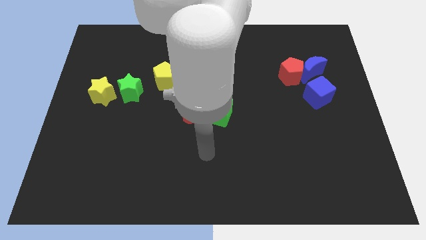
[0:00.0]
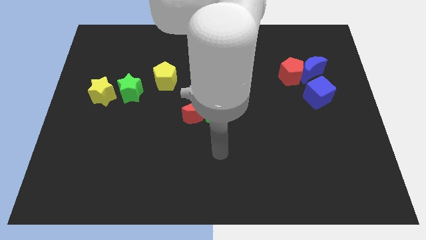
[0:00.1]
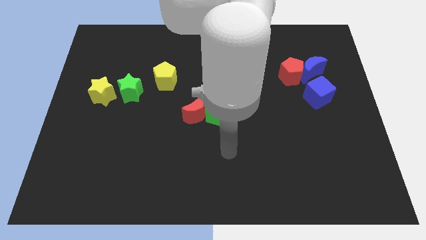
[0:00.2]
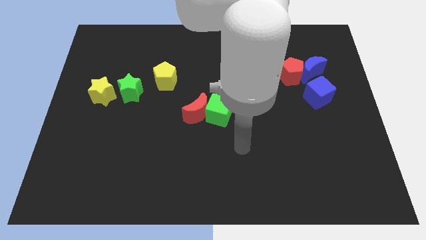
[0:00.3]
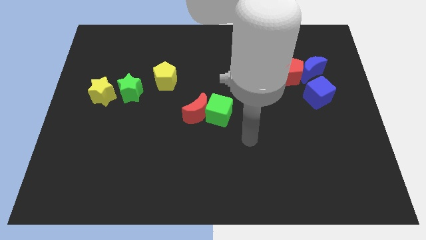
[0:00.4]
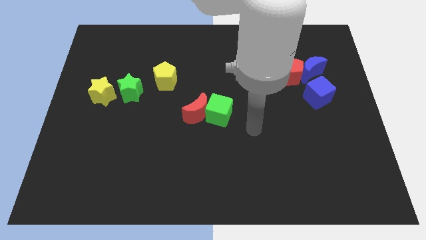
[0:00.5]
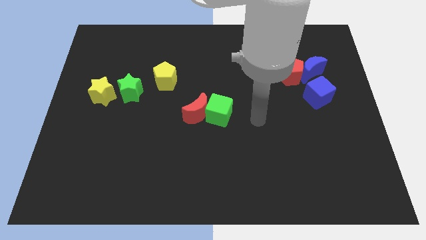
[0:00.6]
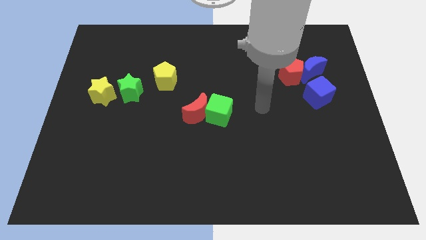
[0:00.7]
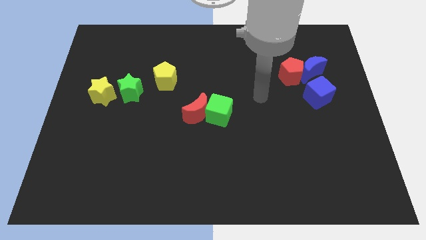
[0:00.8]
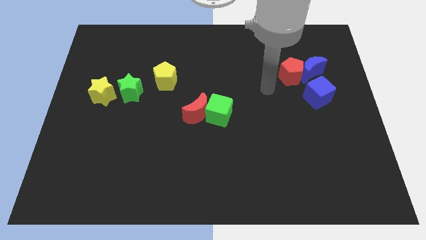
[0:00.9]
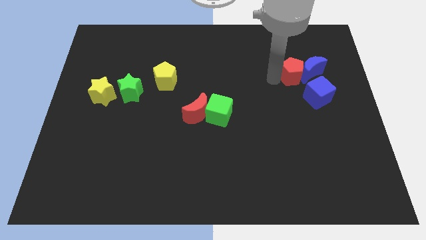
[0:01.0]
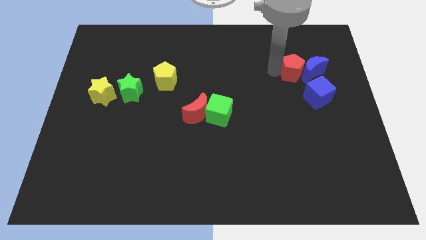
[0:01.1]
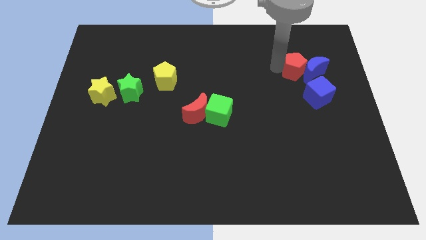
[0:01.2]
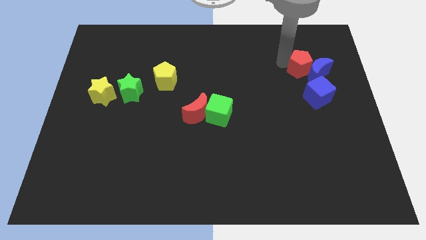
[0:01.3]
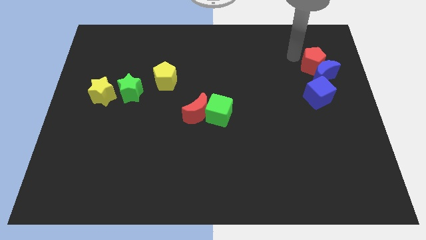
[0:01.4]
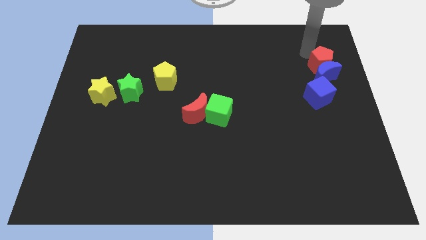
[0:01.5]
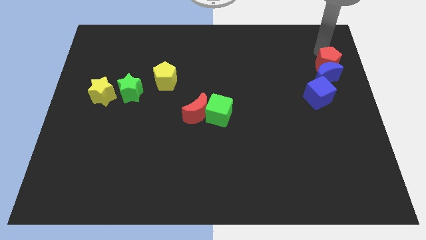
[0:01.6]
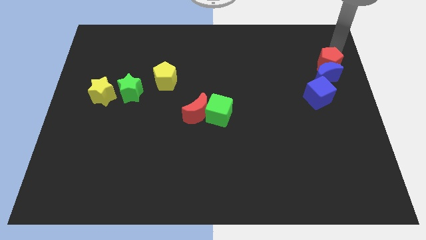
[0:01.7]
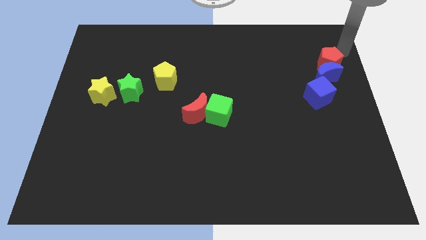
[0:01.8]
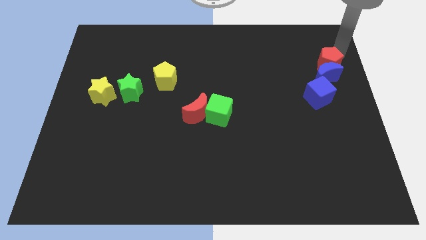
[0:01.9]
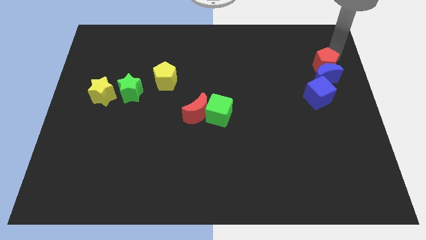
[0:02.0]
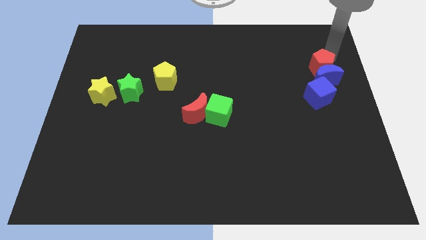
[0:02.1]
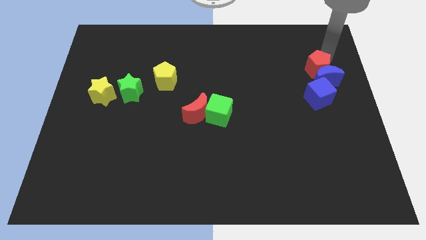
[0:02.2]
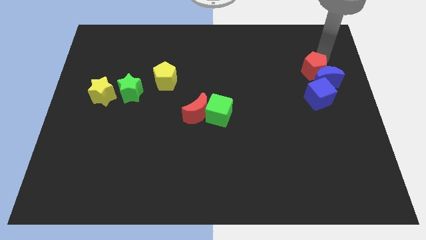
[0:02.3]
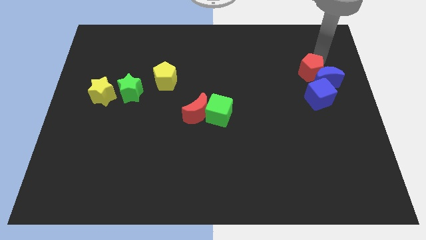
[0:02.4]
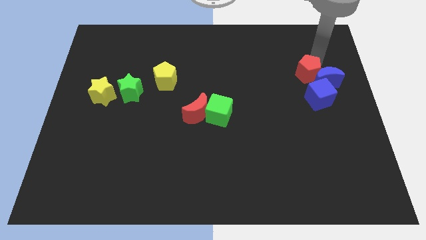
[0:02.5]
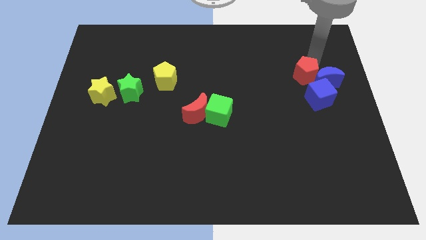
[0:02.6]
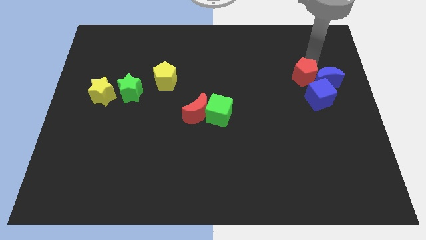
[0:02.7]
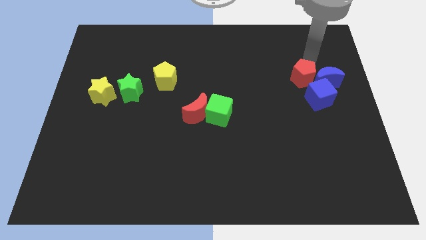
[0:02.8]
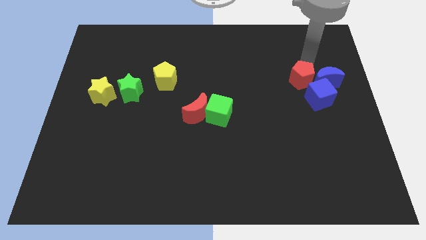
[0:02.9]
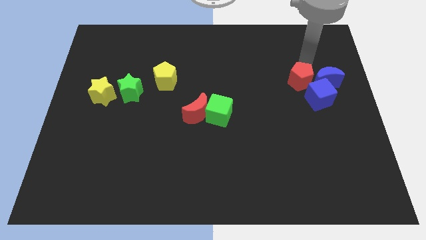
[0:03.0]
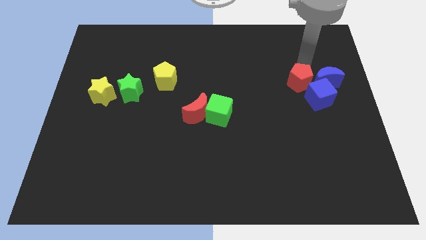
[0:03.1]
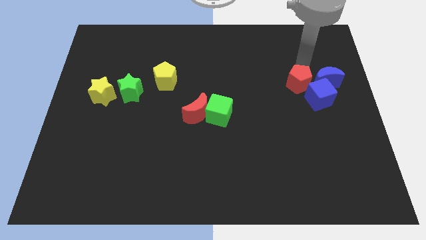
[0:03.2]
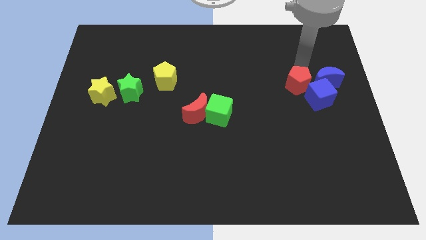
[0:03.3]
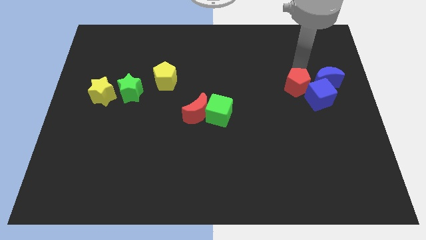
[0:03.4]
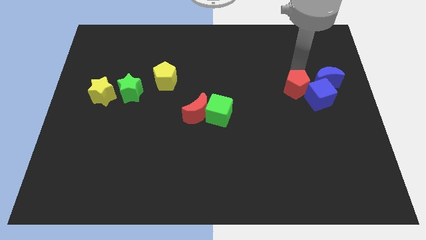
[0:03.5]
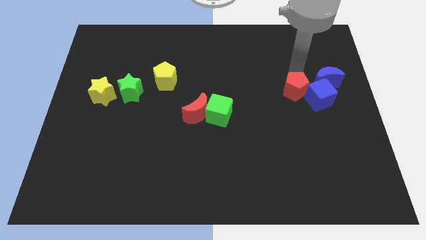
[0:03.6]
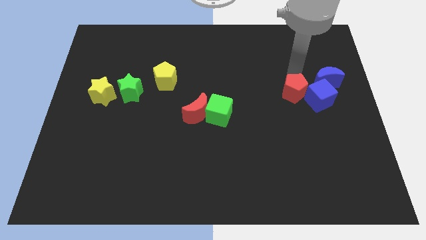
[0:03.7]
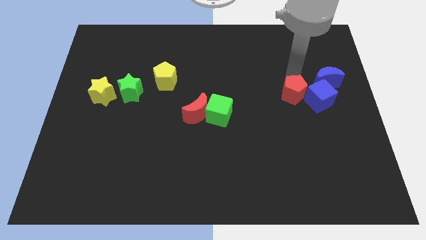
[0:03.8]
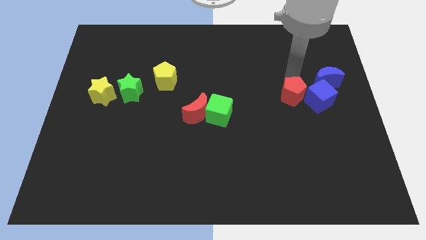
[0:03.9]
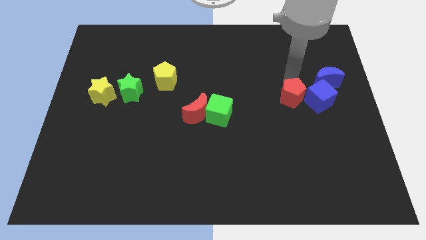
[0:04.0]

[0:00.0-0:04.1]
move the red pentagon downwards a bit

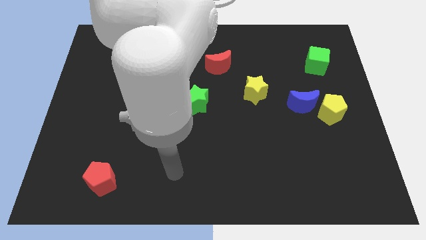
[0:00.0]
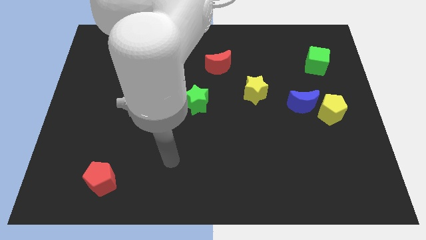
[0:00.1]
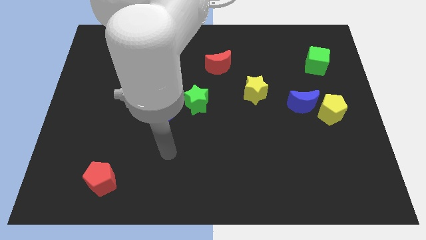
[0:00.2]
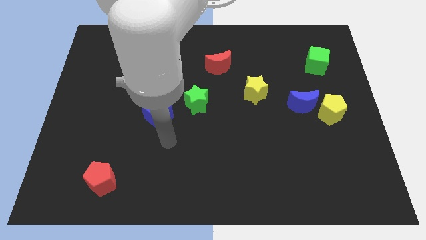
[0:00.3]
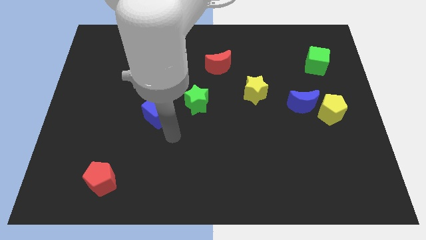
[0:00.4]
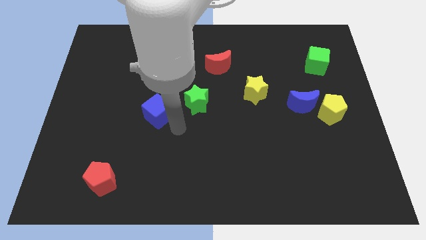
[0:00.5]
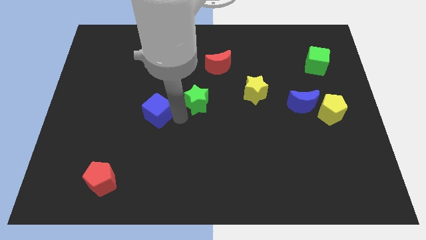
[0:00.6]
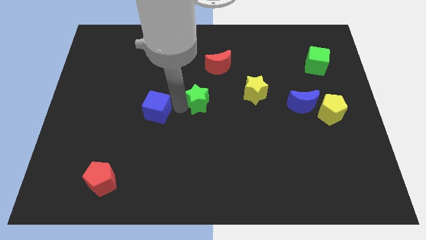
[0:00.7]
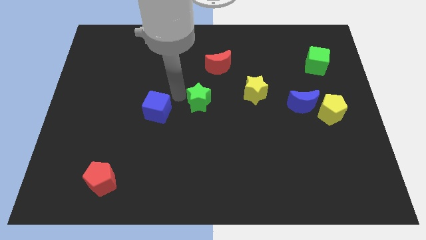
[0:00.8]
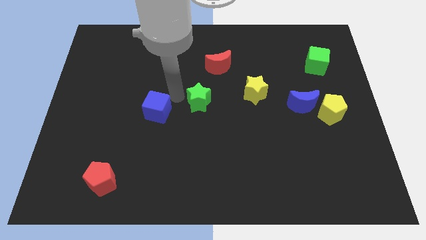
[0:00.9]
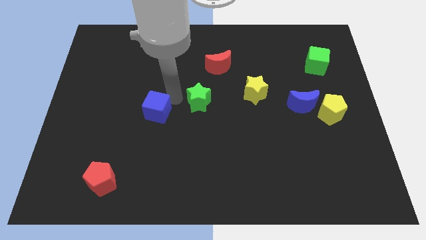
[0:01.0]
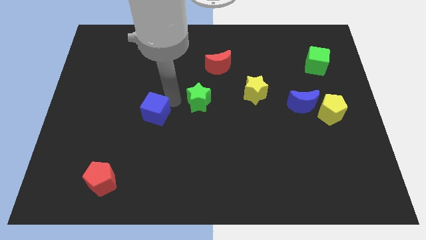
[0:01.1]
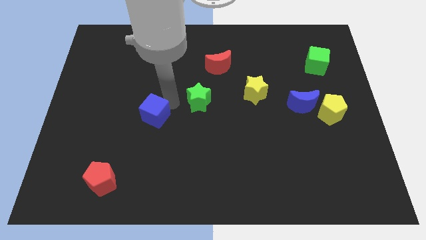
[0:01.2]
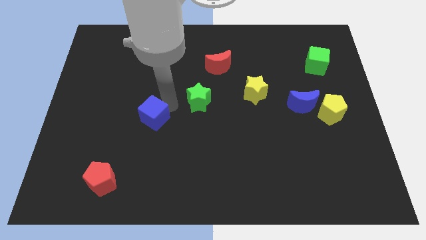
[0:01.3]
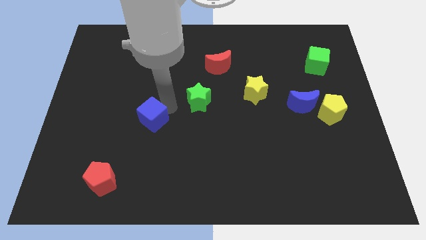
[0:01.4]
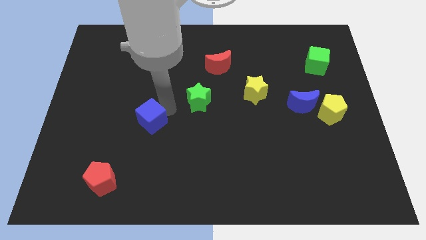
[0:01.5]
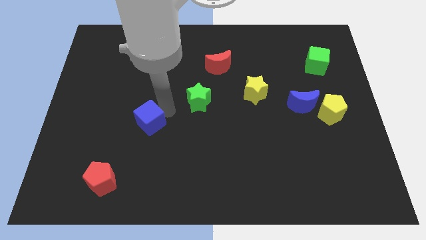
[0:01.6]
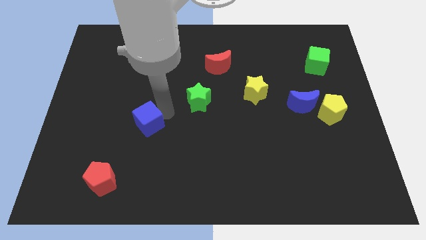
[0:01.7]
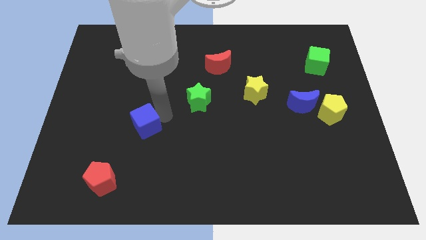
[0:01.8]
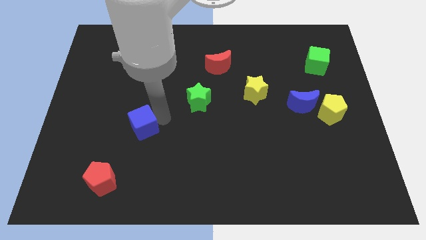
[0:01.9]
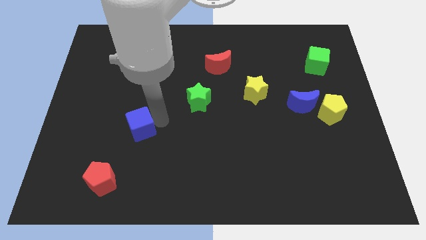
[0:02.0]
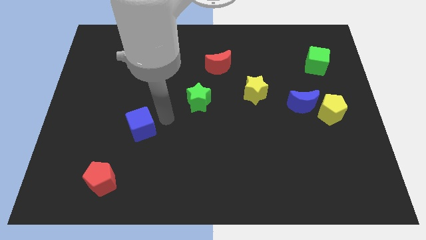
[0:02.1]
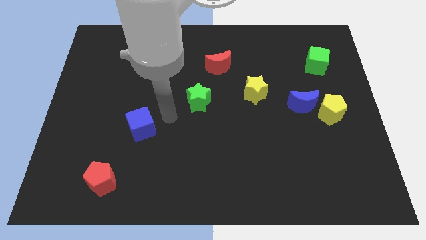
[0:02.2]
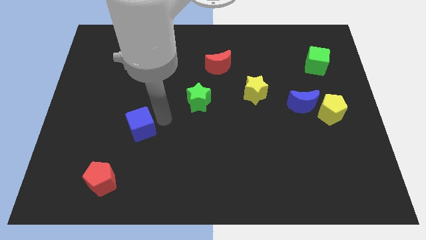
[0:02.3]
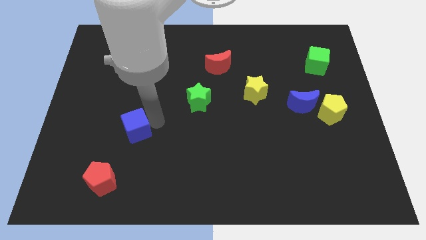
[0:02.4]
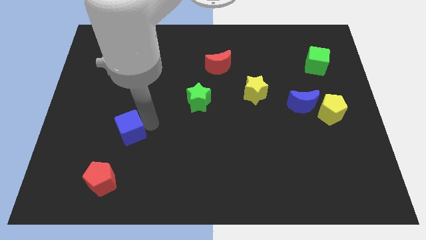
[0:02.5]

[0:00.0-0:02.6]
slightly slide the blue cube downwards and to the left diagonally

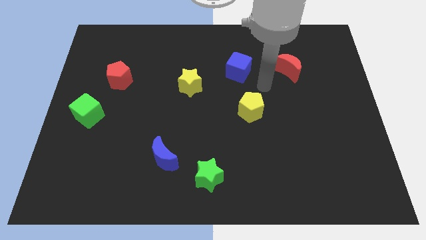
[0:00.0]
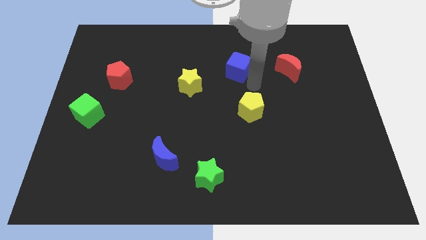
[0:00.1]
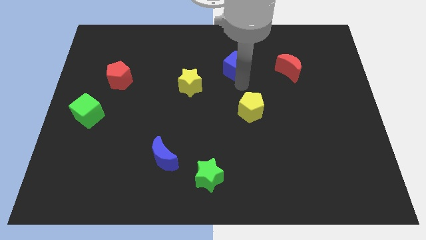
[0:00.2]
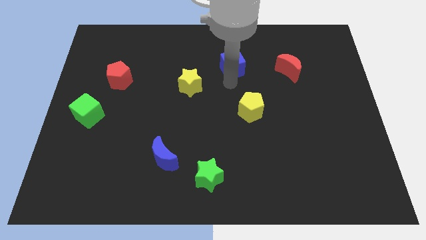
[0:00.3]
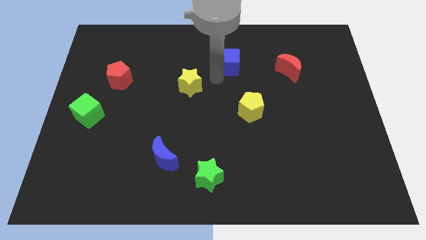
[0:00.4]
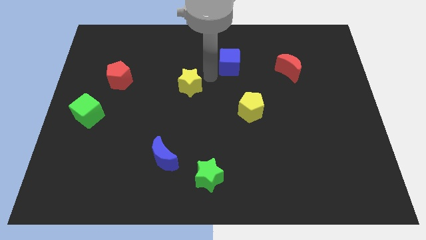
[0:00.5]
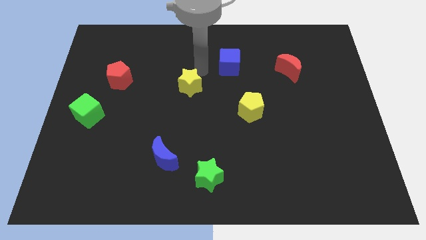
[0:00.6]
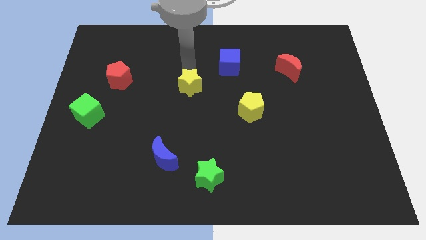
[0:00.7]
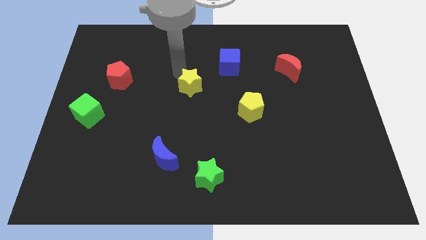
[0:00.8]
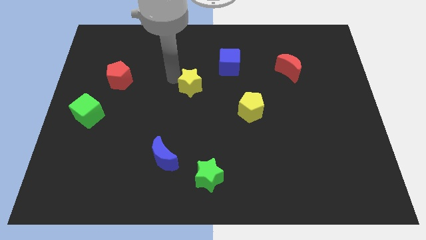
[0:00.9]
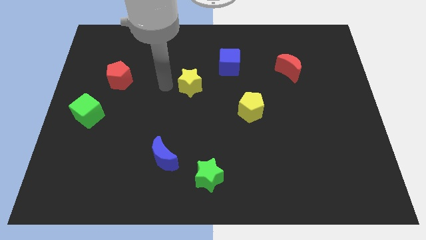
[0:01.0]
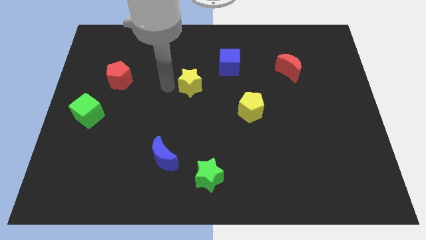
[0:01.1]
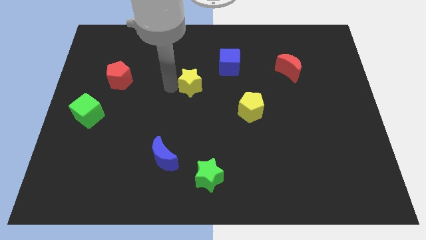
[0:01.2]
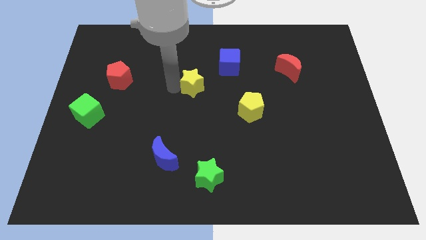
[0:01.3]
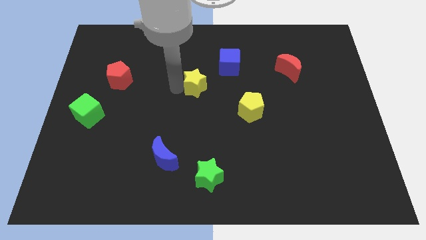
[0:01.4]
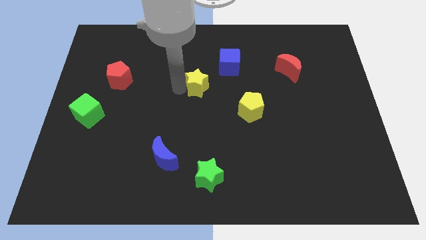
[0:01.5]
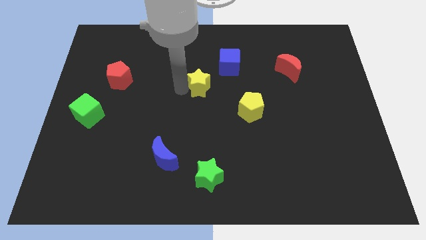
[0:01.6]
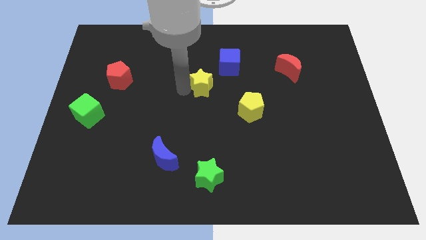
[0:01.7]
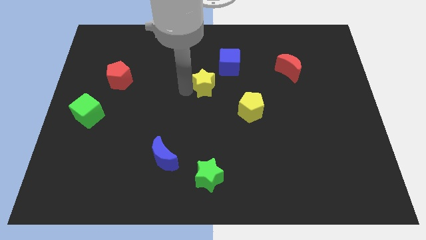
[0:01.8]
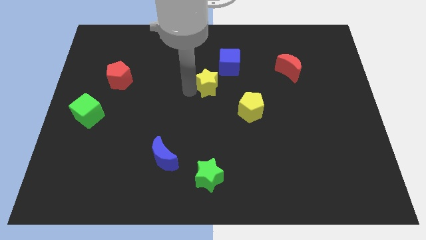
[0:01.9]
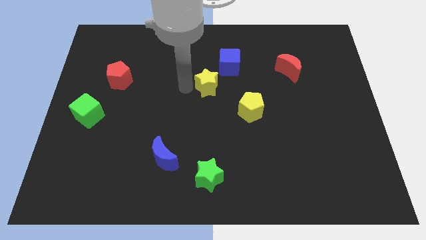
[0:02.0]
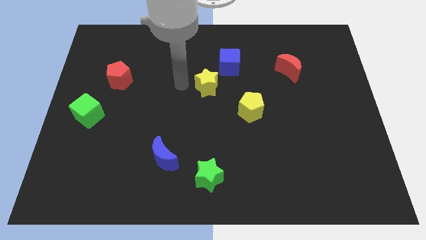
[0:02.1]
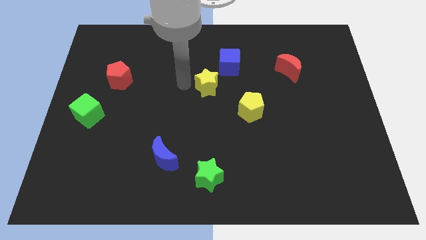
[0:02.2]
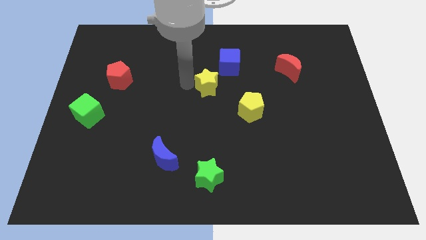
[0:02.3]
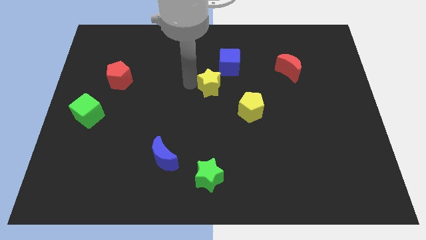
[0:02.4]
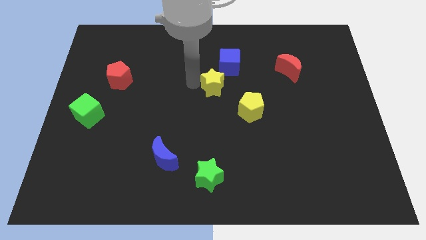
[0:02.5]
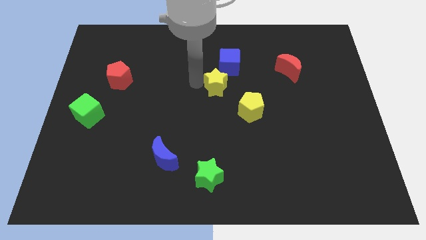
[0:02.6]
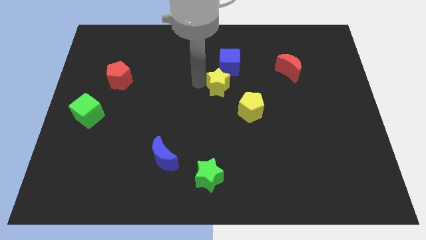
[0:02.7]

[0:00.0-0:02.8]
move the yellow star to the right a bit
